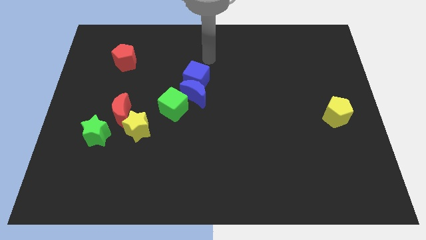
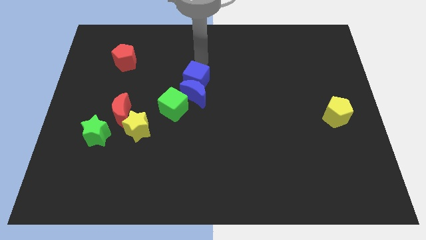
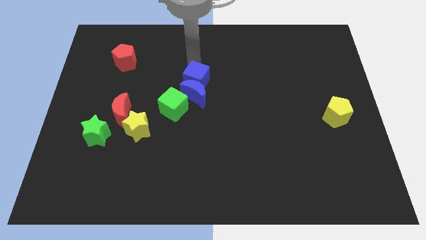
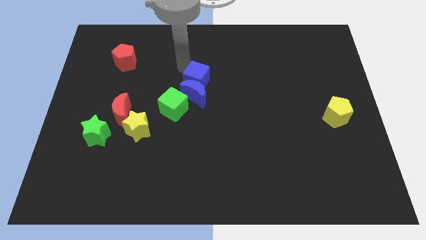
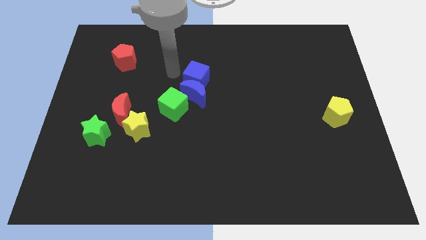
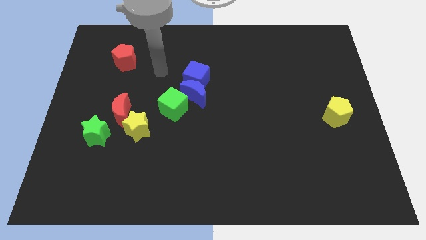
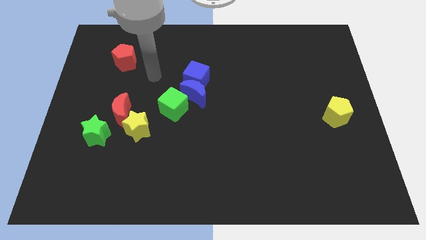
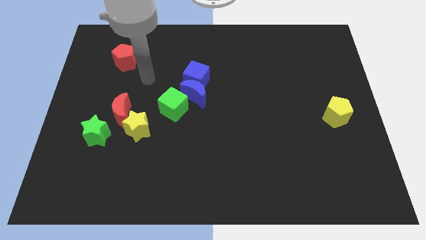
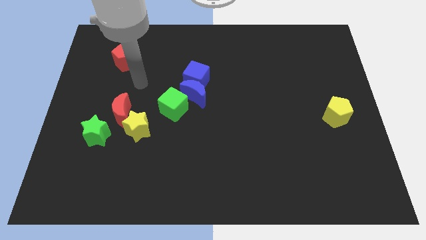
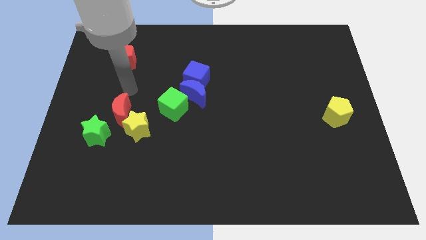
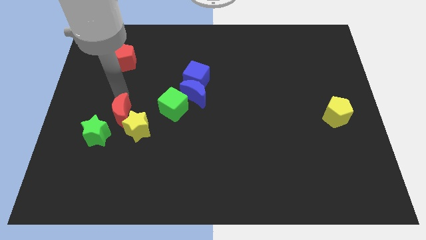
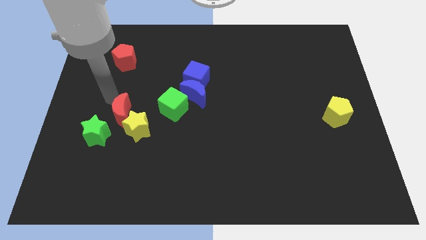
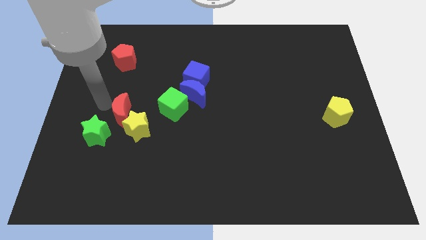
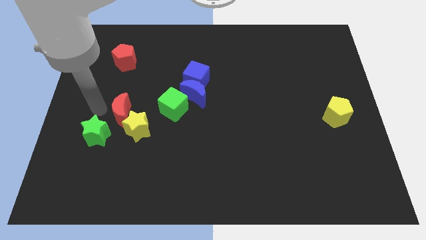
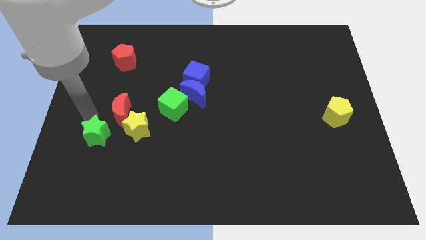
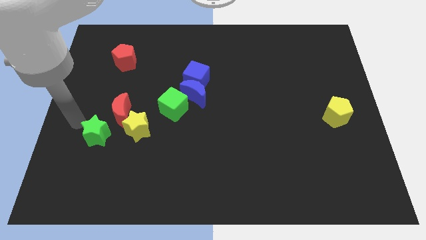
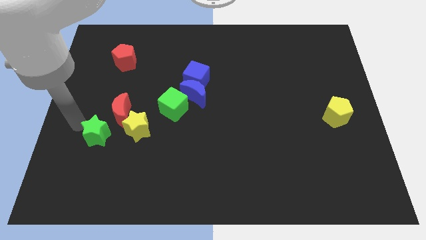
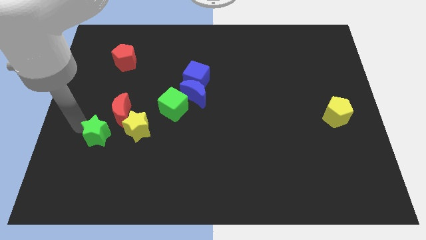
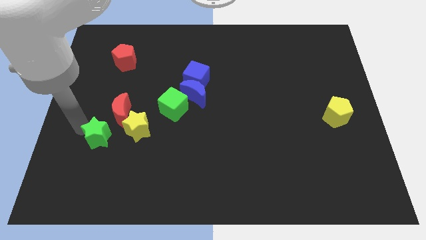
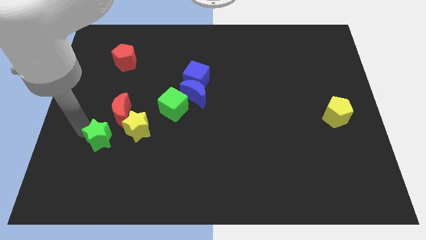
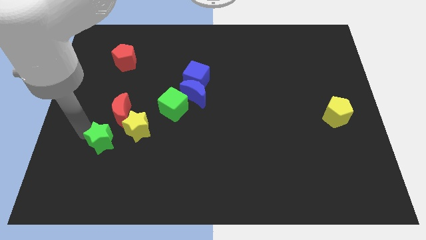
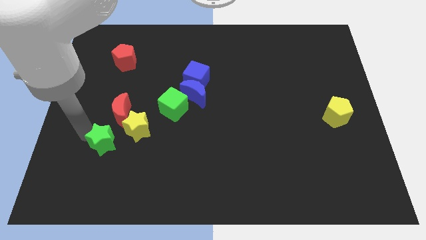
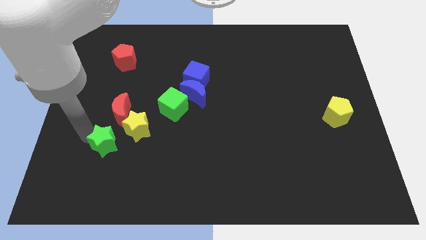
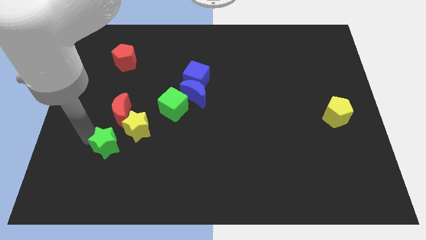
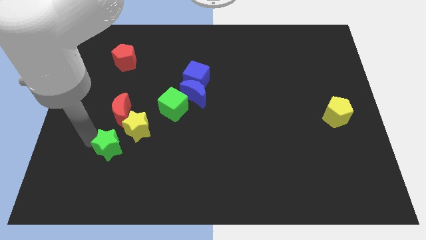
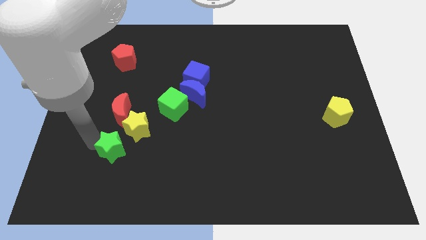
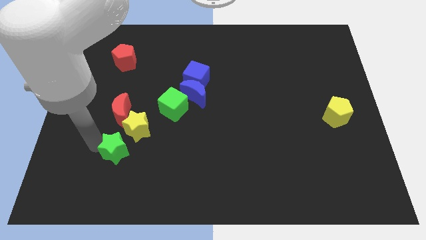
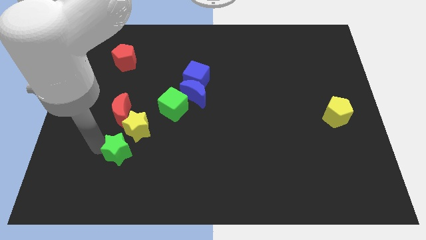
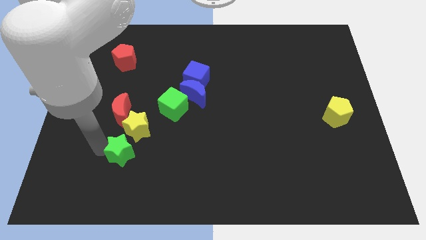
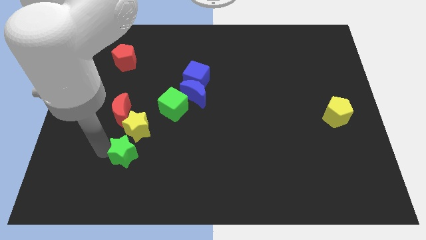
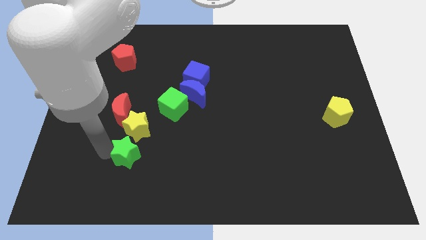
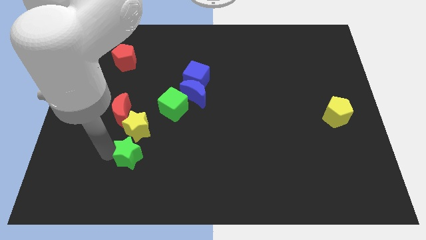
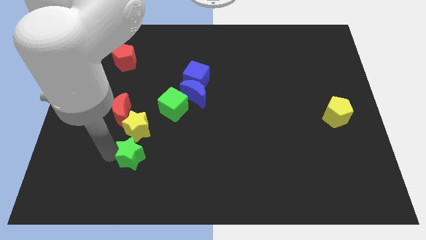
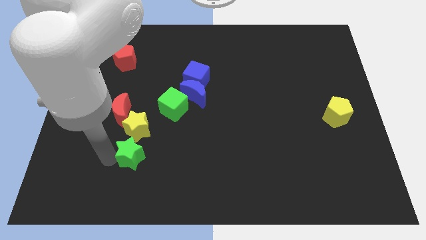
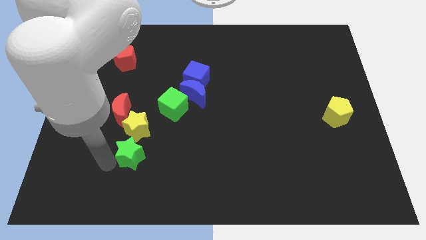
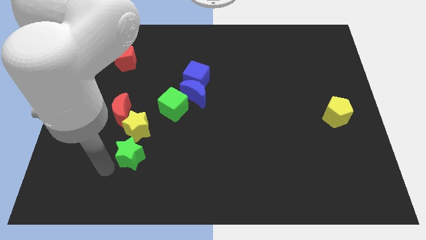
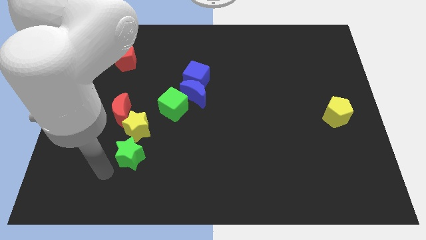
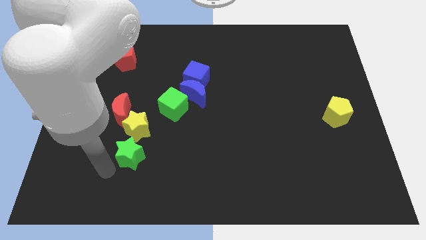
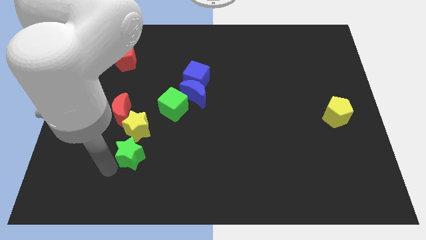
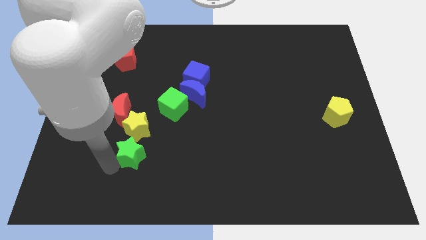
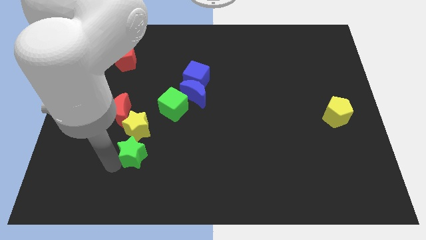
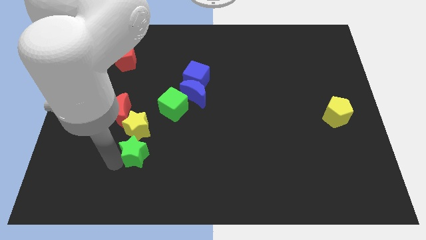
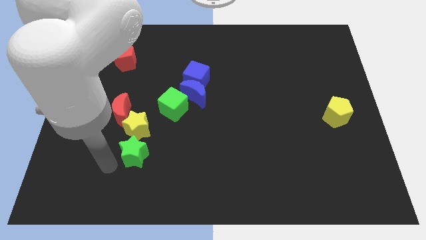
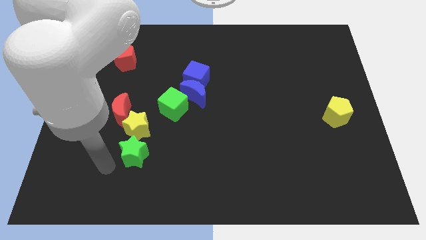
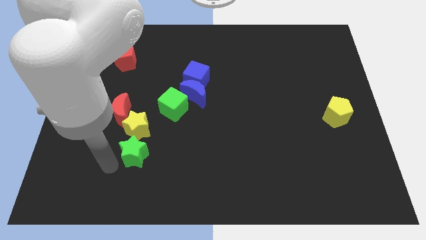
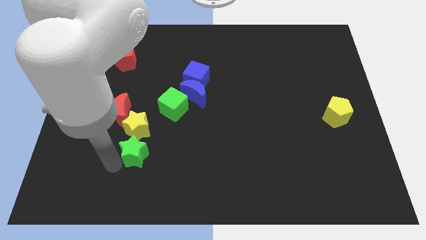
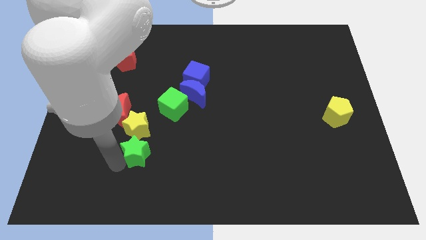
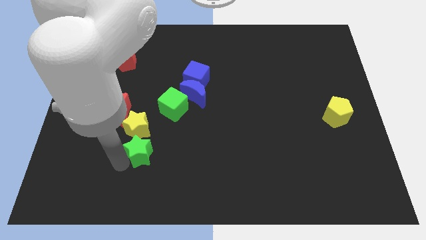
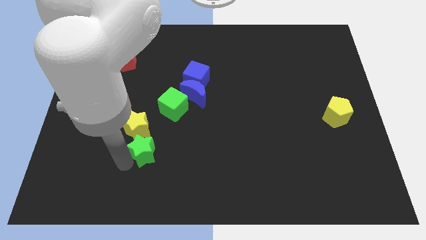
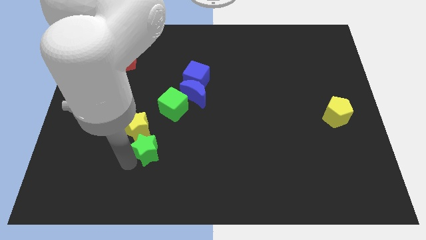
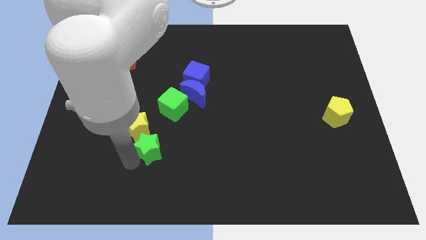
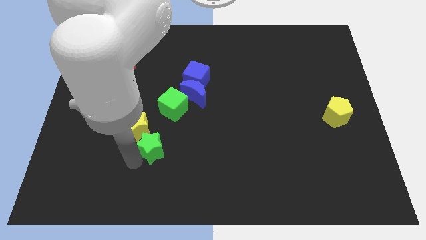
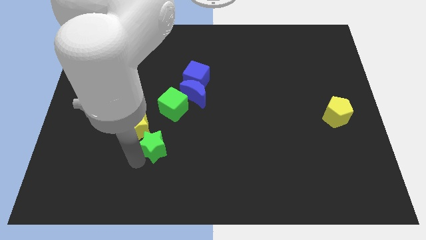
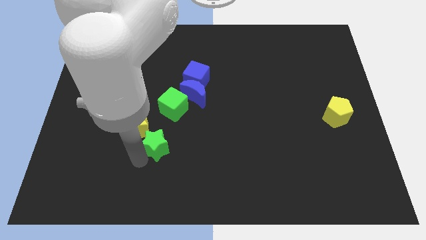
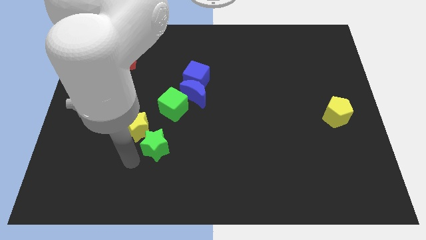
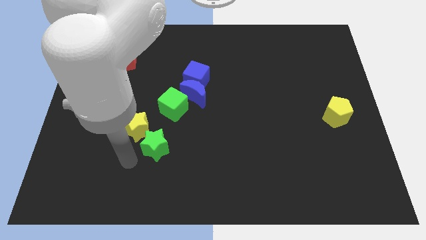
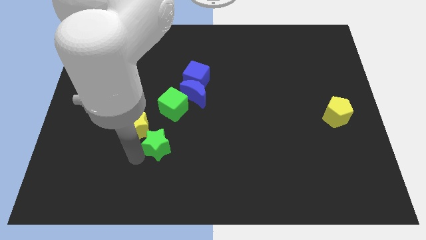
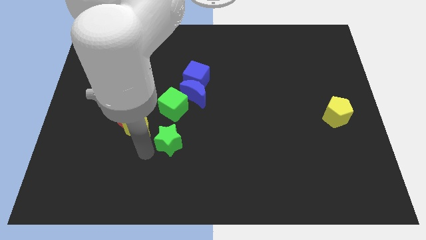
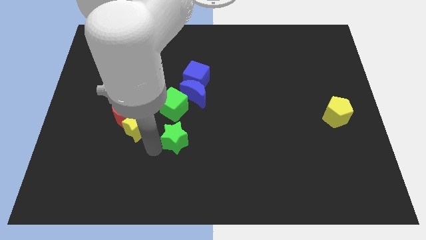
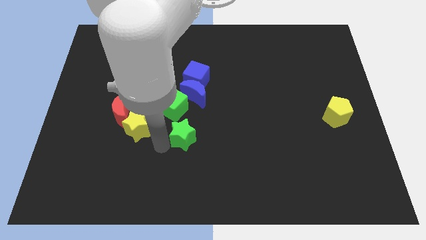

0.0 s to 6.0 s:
move the green star to the bottom right of the green cube
